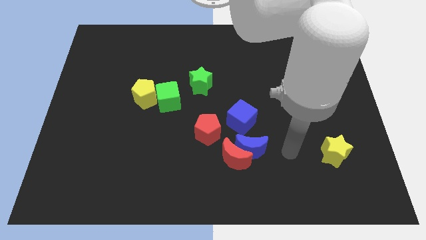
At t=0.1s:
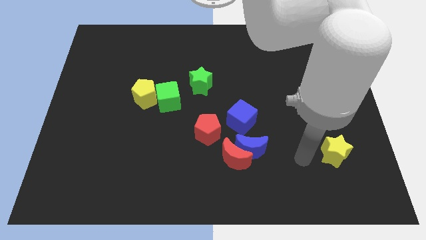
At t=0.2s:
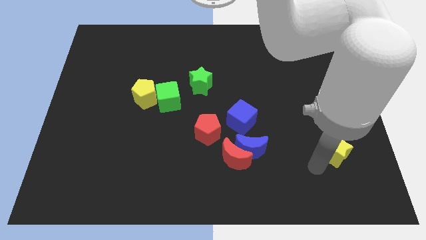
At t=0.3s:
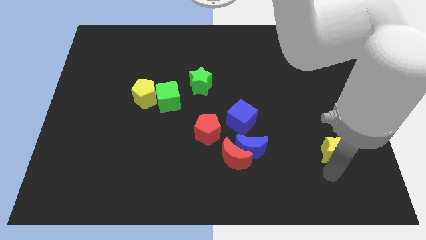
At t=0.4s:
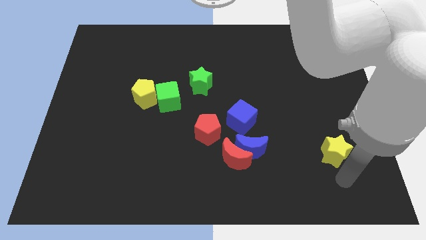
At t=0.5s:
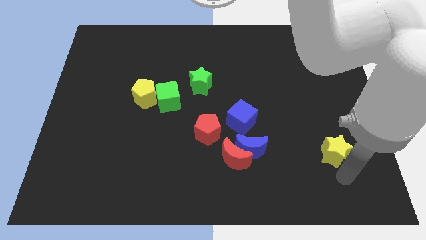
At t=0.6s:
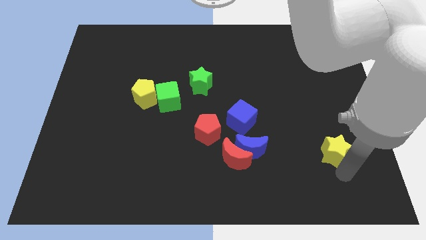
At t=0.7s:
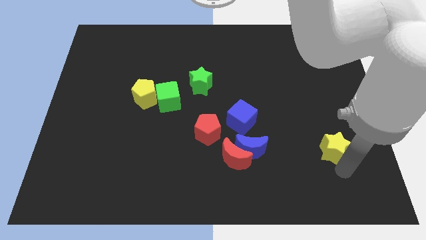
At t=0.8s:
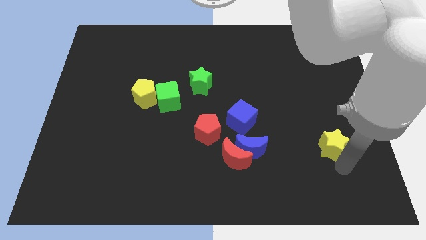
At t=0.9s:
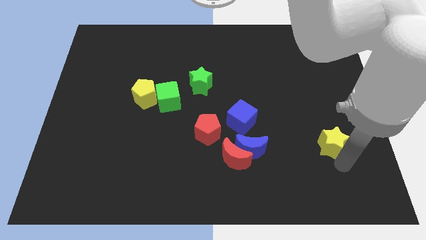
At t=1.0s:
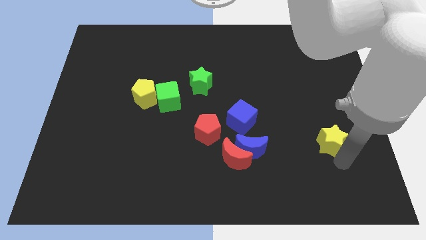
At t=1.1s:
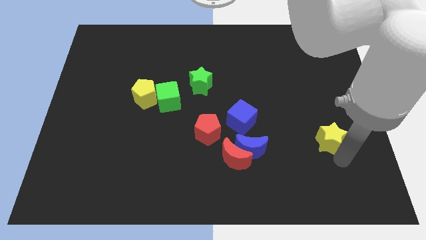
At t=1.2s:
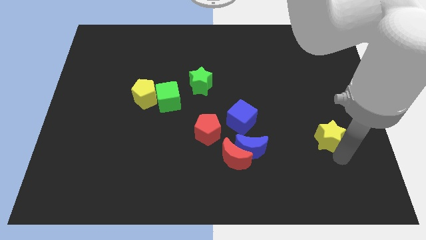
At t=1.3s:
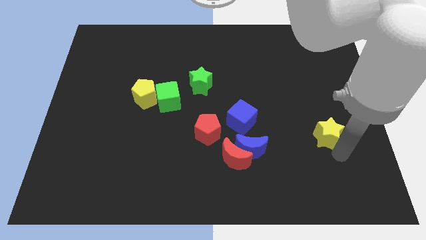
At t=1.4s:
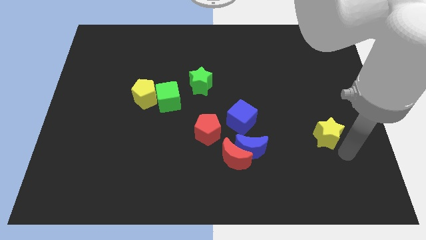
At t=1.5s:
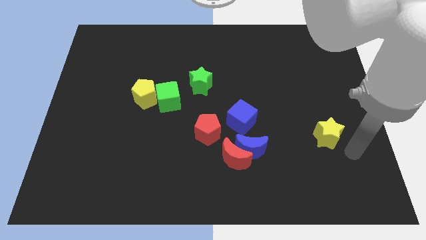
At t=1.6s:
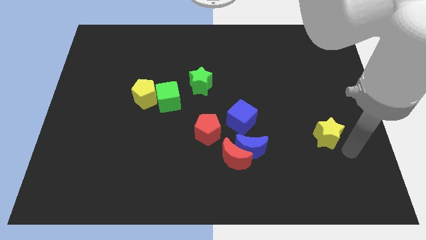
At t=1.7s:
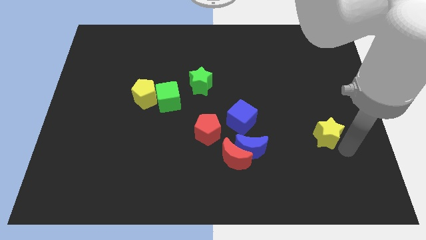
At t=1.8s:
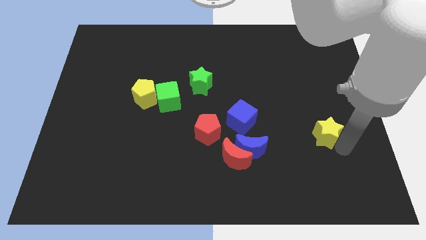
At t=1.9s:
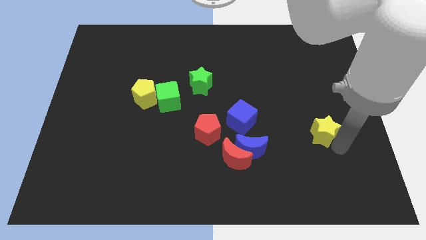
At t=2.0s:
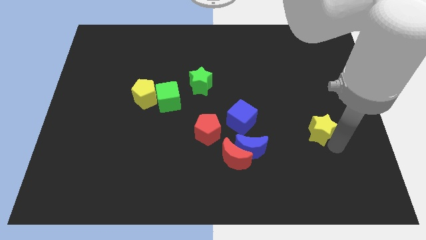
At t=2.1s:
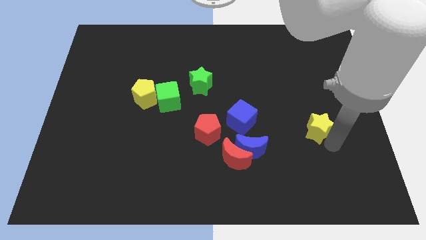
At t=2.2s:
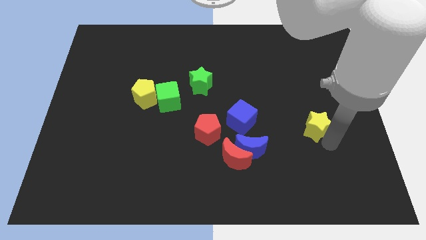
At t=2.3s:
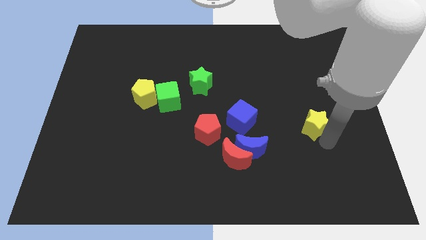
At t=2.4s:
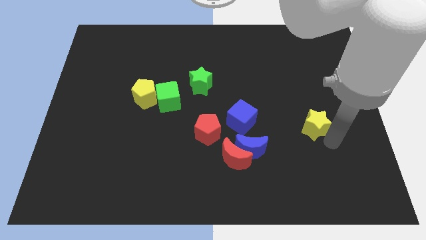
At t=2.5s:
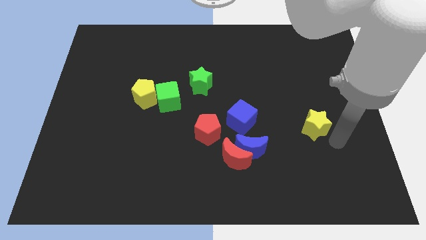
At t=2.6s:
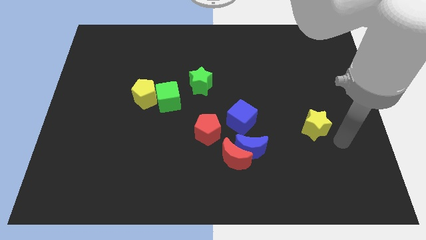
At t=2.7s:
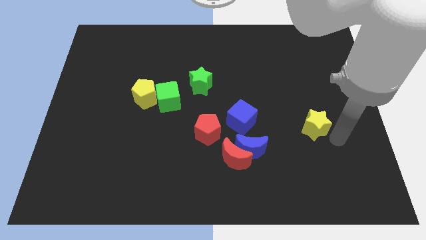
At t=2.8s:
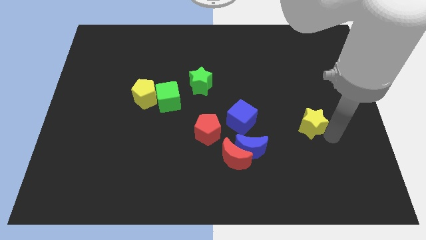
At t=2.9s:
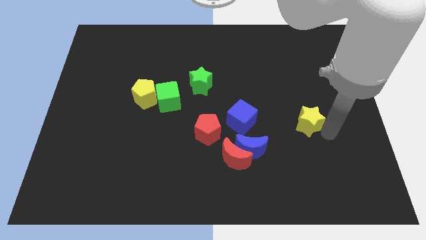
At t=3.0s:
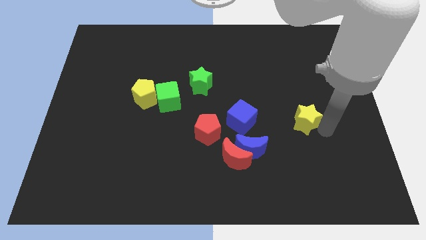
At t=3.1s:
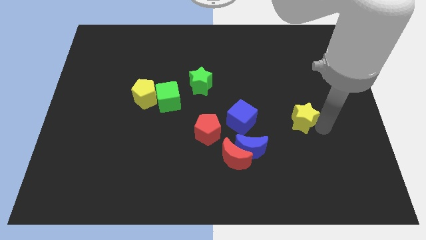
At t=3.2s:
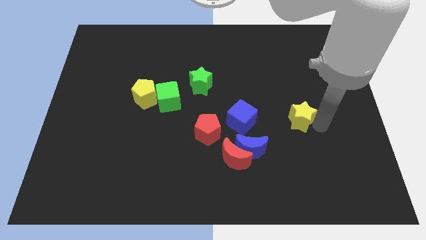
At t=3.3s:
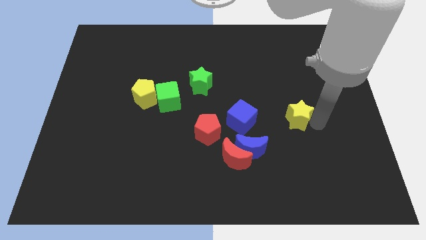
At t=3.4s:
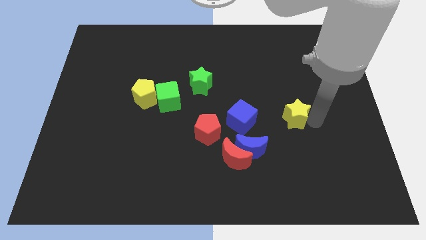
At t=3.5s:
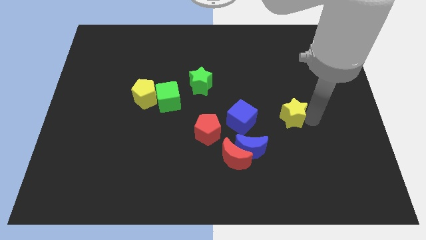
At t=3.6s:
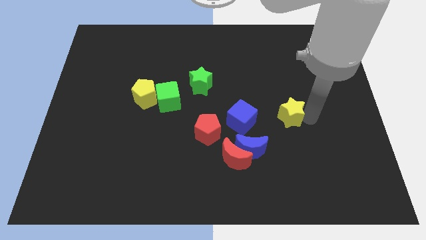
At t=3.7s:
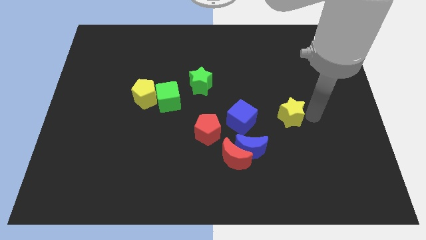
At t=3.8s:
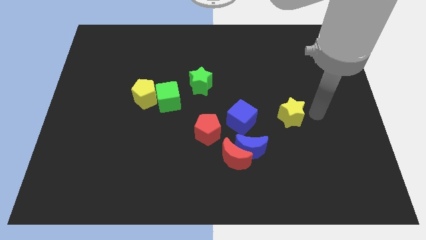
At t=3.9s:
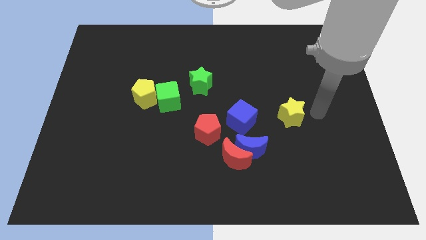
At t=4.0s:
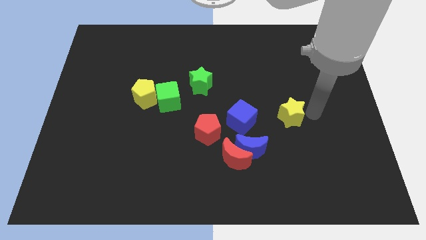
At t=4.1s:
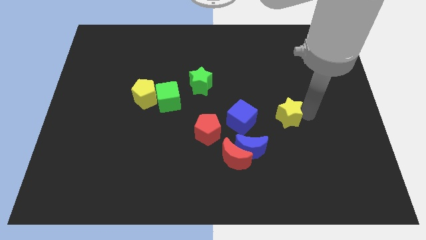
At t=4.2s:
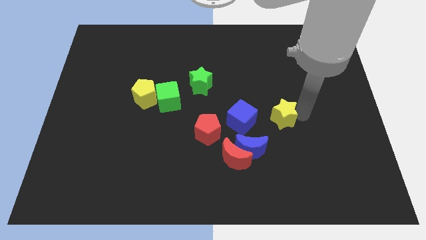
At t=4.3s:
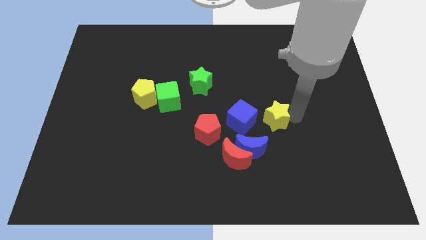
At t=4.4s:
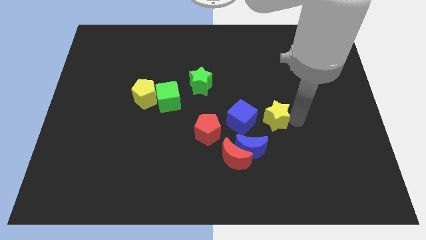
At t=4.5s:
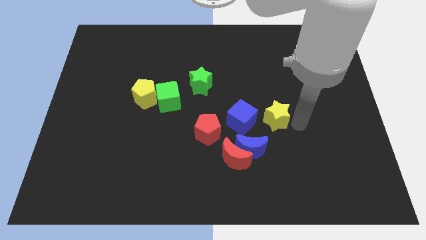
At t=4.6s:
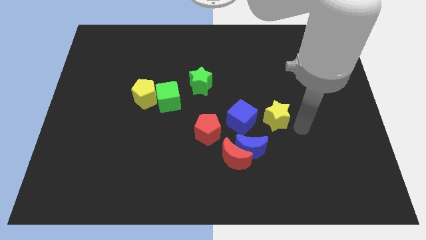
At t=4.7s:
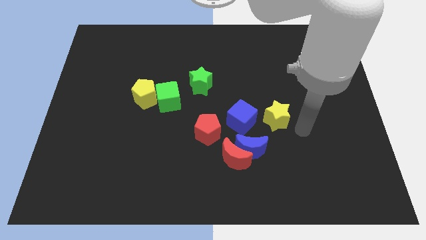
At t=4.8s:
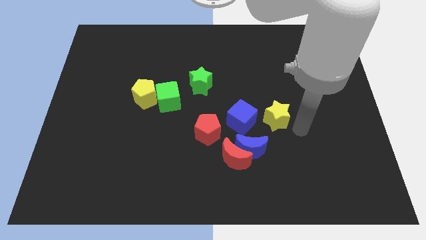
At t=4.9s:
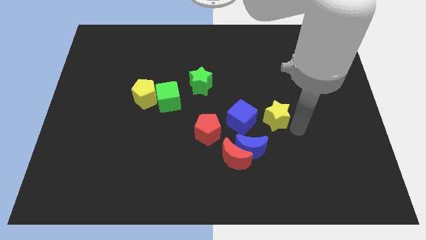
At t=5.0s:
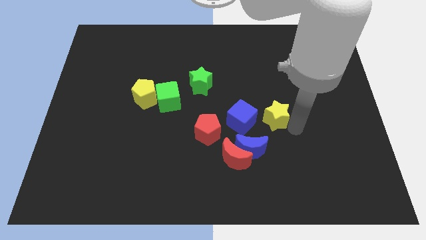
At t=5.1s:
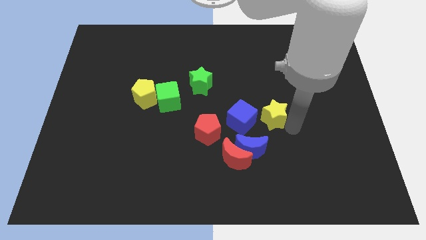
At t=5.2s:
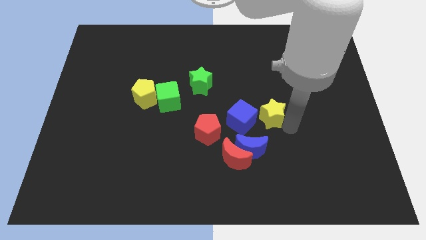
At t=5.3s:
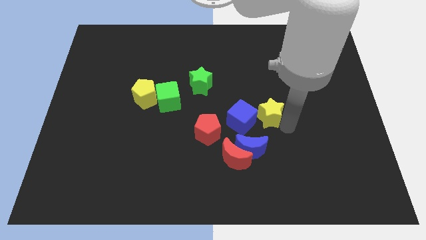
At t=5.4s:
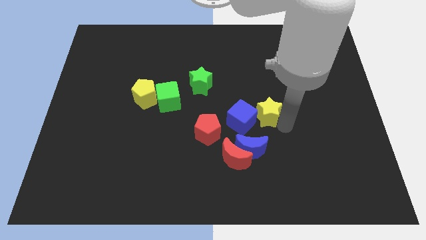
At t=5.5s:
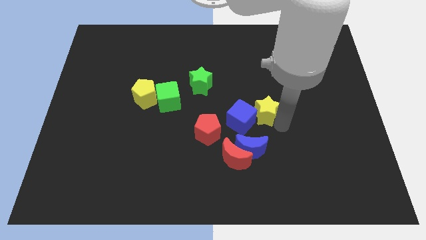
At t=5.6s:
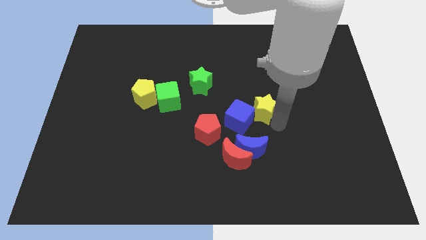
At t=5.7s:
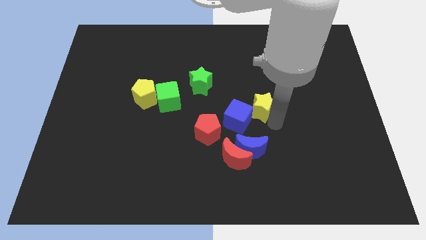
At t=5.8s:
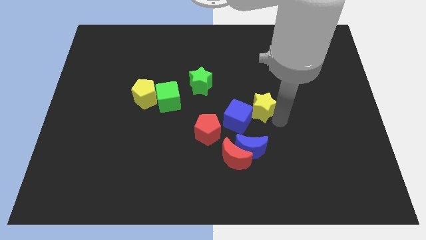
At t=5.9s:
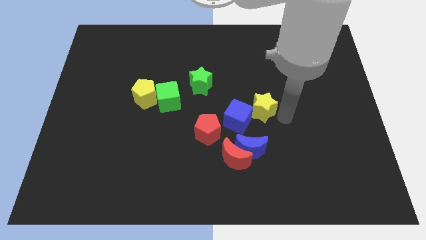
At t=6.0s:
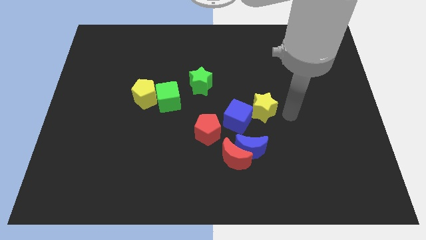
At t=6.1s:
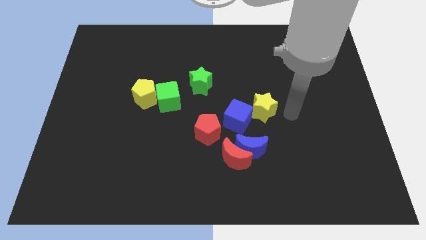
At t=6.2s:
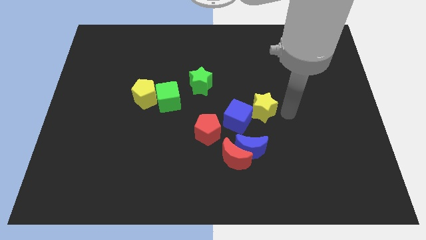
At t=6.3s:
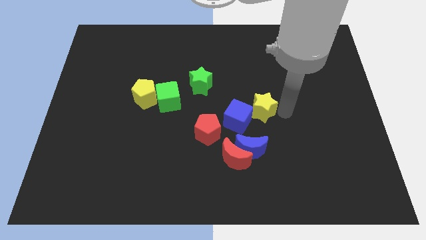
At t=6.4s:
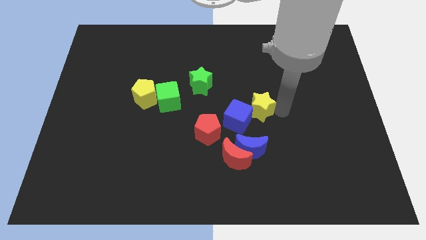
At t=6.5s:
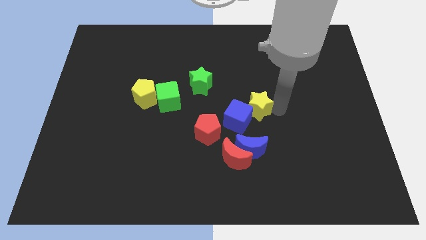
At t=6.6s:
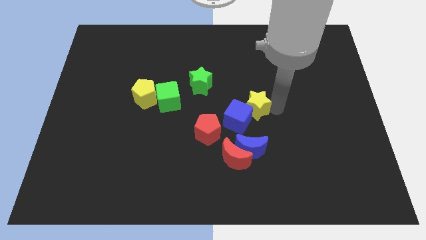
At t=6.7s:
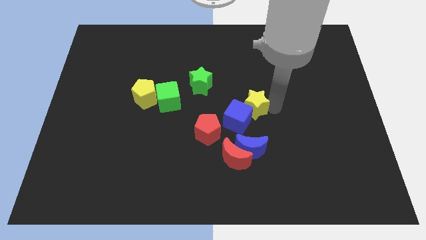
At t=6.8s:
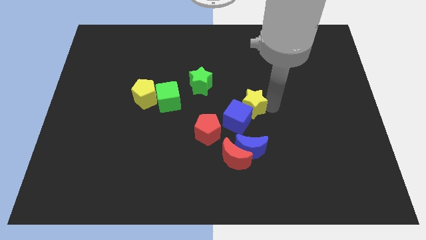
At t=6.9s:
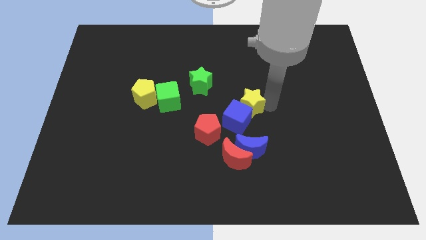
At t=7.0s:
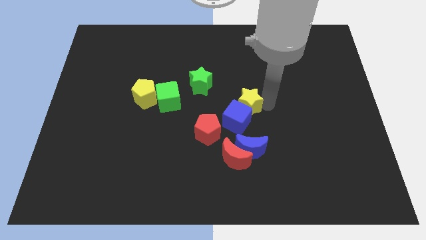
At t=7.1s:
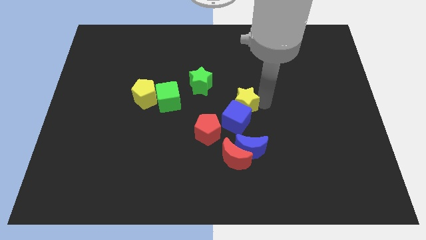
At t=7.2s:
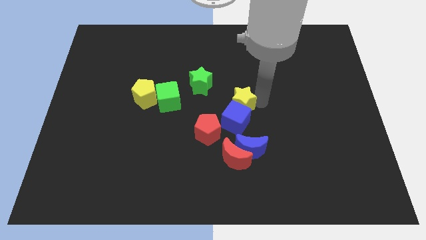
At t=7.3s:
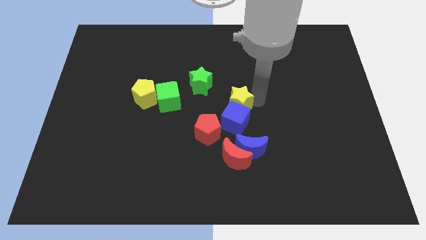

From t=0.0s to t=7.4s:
put the yellow star to the top left of the blue cube
